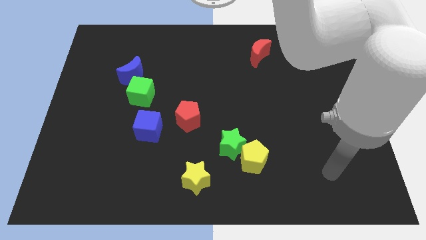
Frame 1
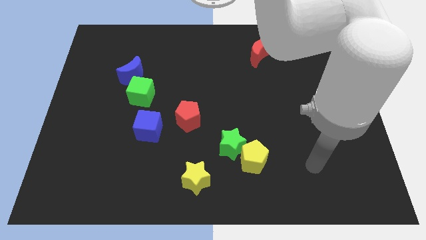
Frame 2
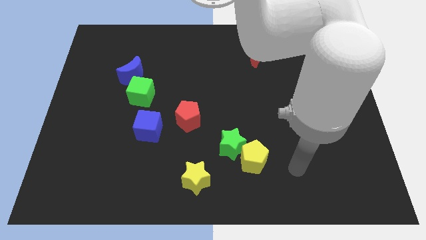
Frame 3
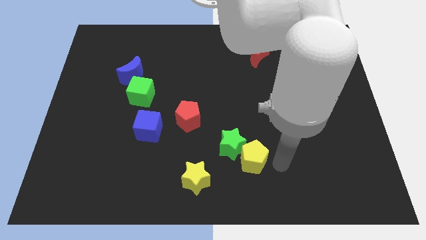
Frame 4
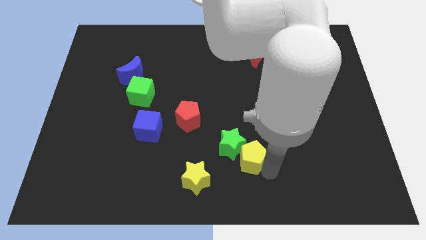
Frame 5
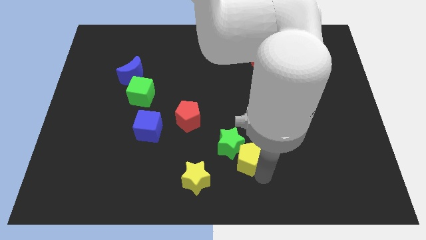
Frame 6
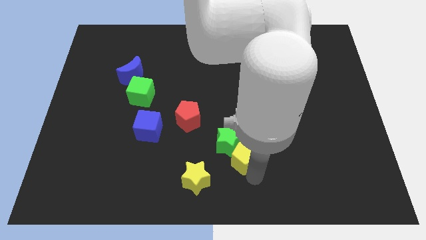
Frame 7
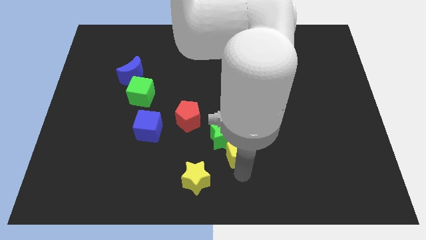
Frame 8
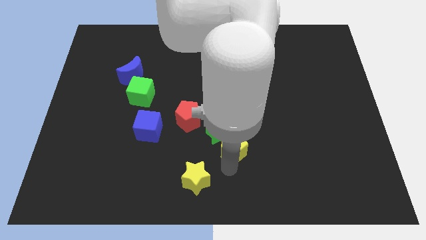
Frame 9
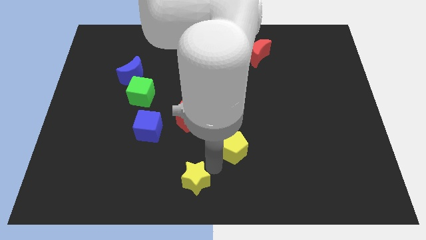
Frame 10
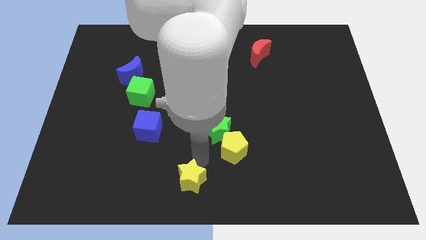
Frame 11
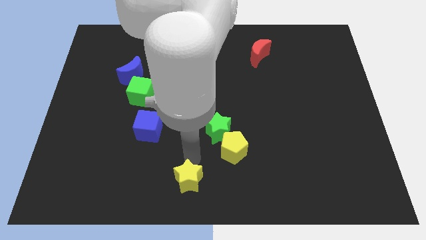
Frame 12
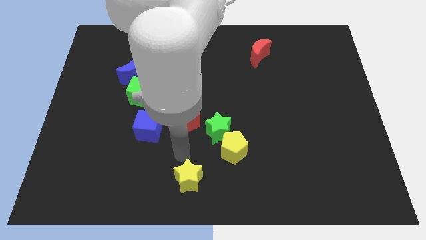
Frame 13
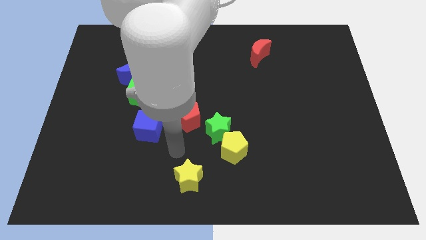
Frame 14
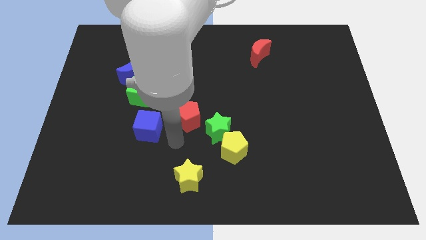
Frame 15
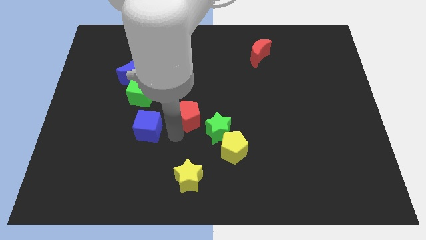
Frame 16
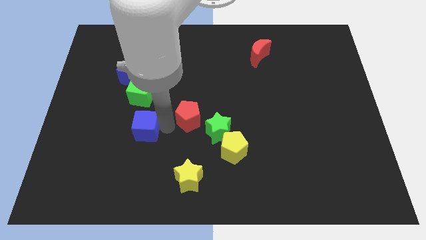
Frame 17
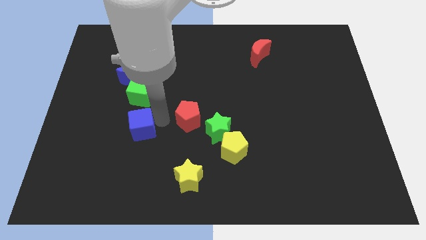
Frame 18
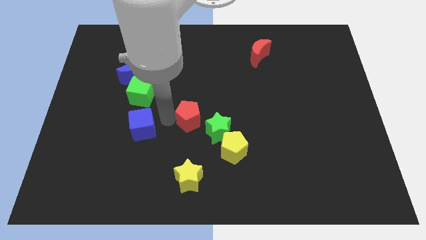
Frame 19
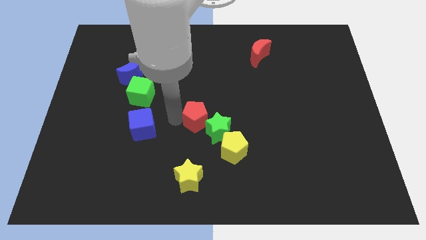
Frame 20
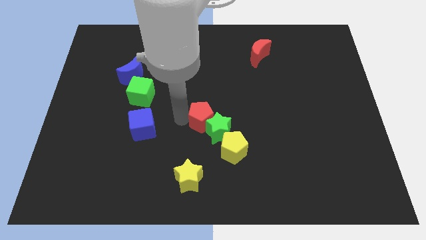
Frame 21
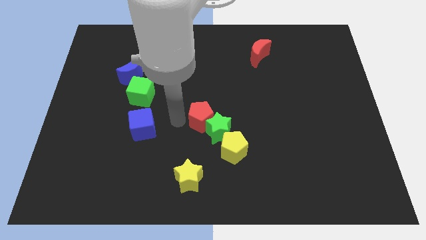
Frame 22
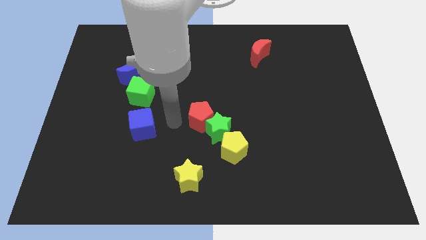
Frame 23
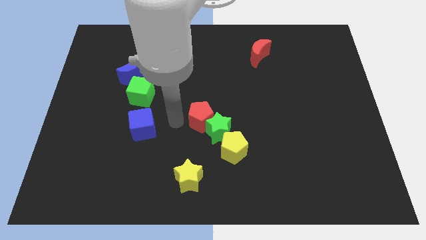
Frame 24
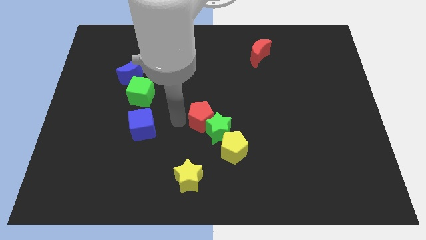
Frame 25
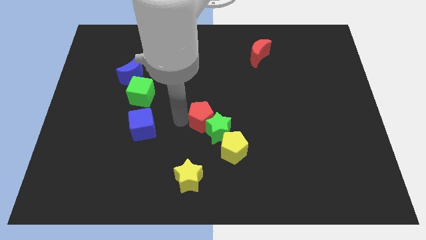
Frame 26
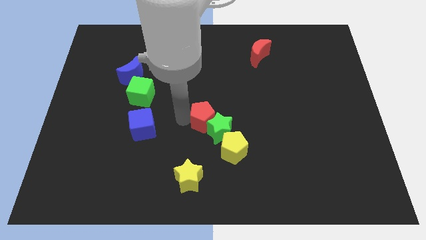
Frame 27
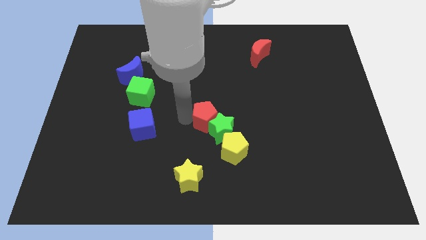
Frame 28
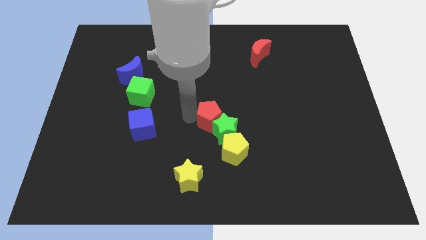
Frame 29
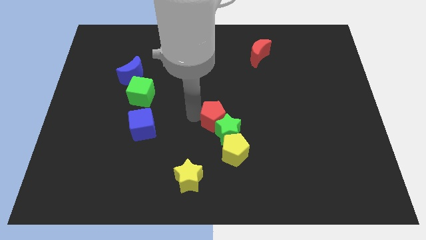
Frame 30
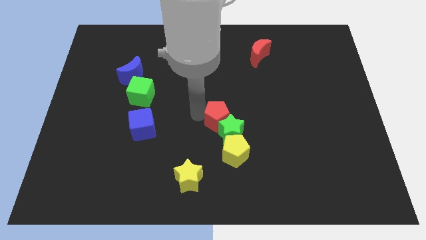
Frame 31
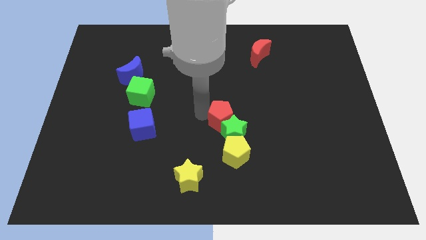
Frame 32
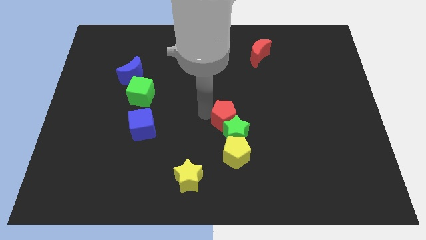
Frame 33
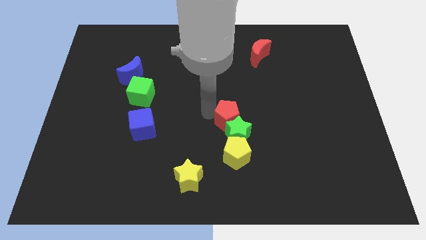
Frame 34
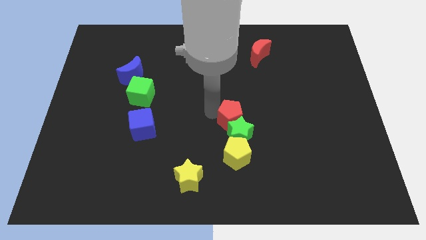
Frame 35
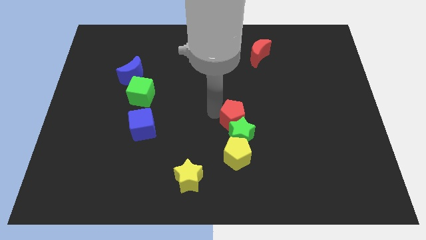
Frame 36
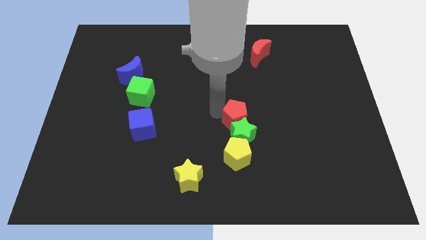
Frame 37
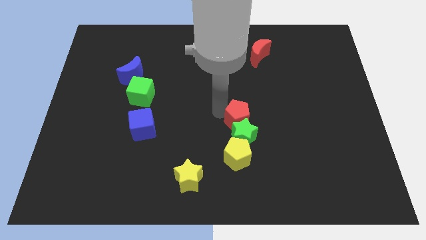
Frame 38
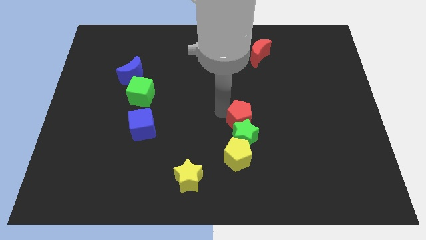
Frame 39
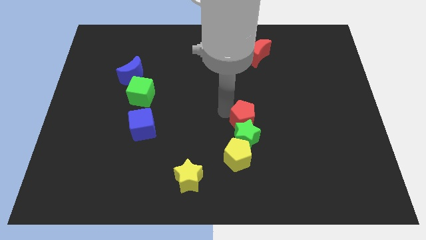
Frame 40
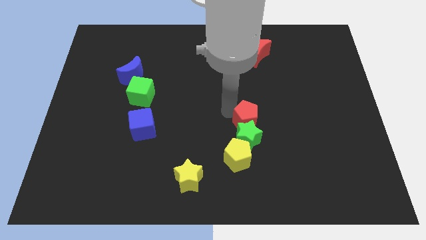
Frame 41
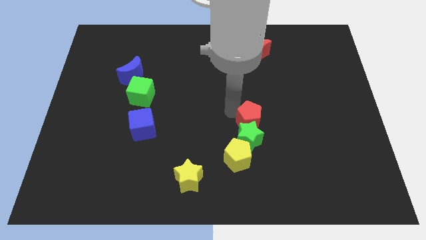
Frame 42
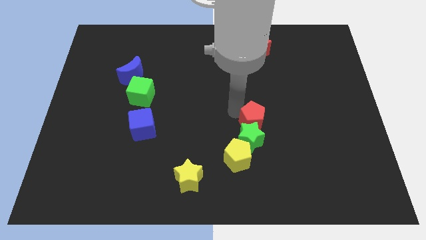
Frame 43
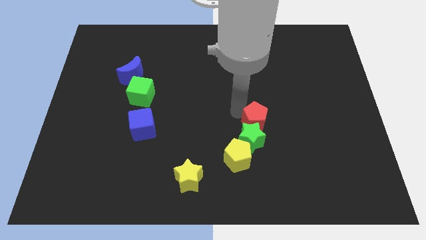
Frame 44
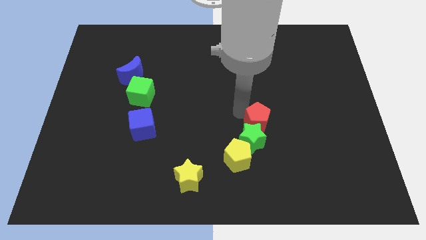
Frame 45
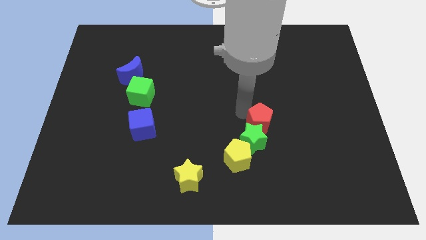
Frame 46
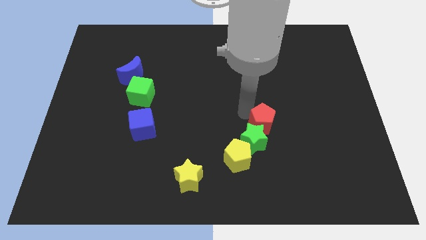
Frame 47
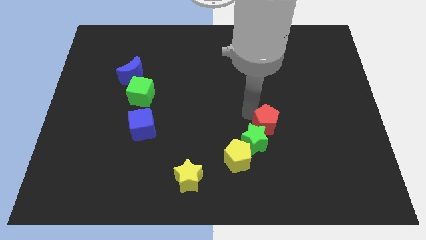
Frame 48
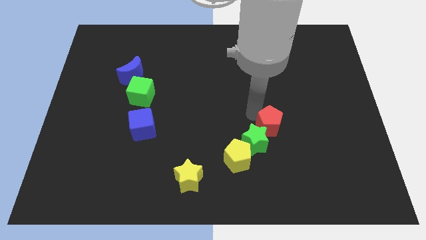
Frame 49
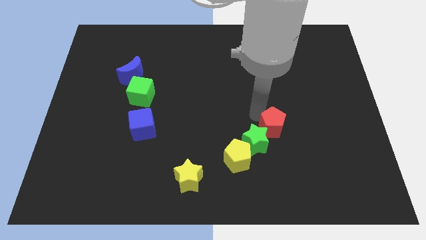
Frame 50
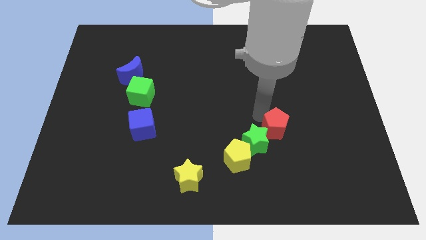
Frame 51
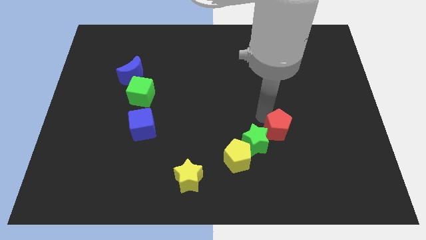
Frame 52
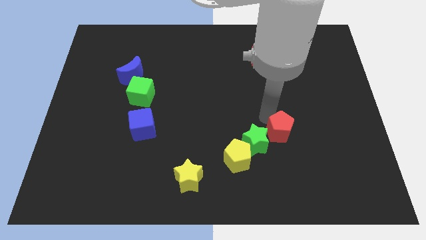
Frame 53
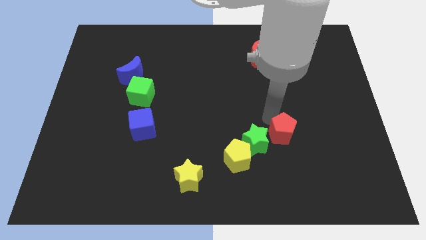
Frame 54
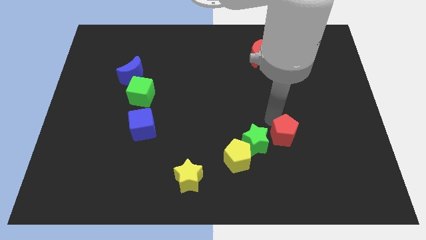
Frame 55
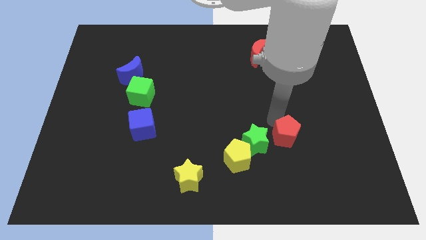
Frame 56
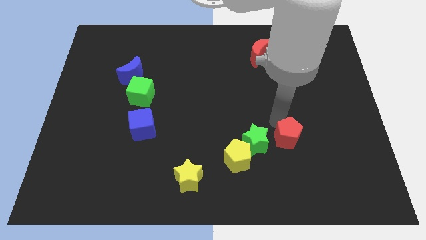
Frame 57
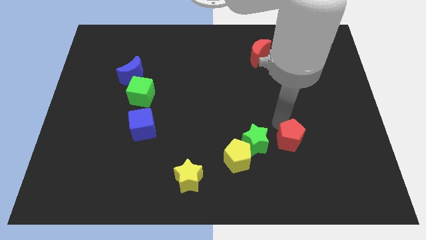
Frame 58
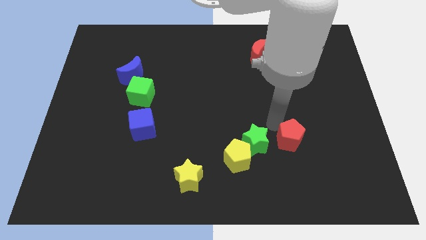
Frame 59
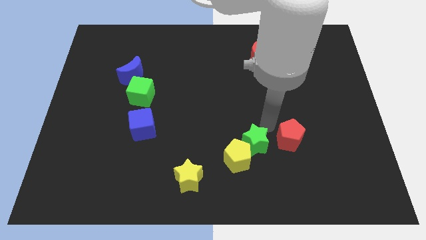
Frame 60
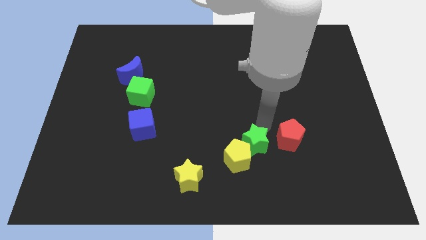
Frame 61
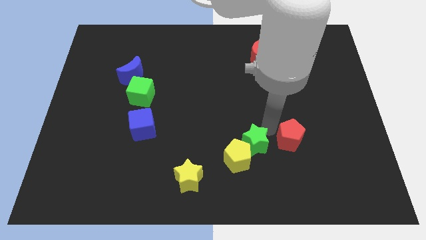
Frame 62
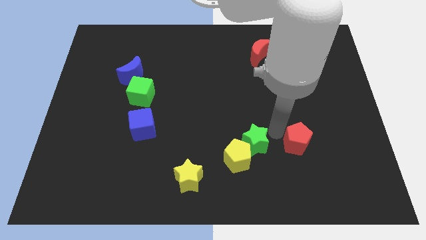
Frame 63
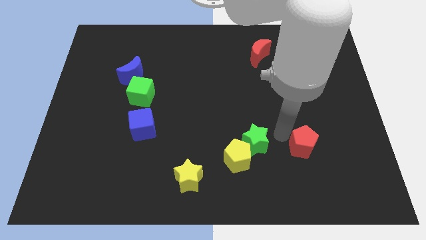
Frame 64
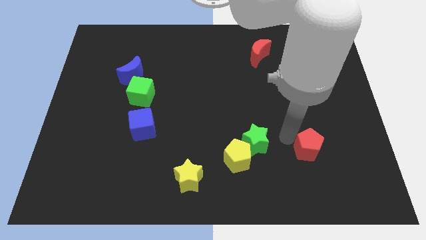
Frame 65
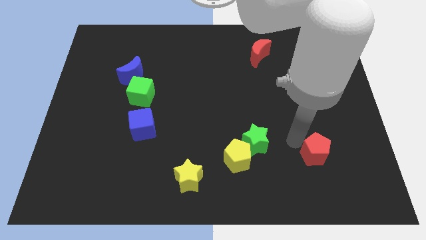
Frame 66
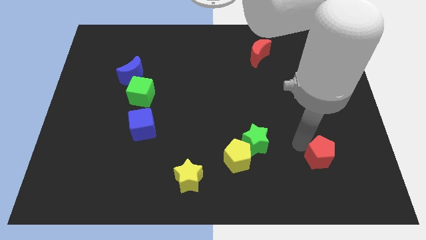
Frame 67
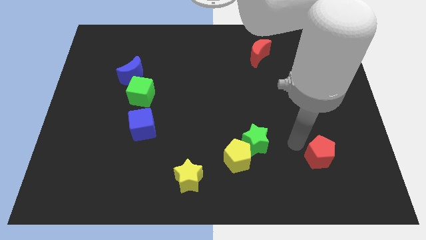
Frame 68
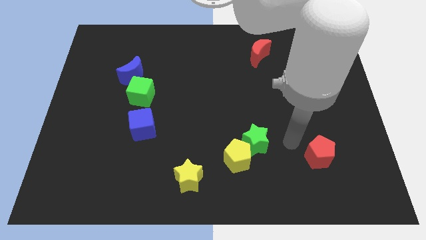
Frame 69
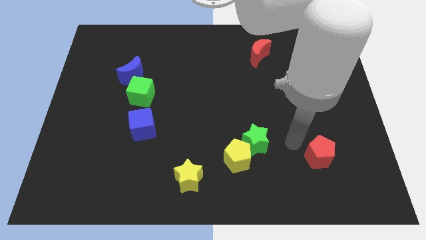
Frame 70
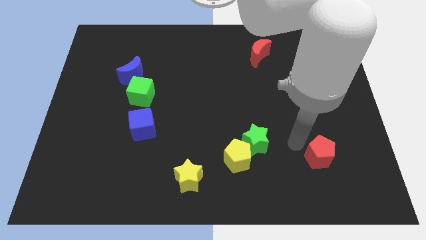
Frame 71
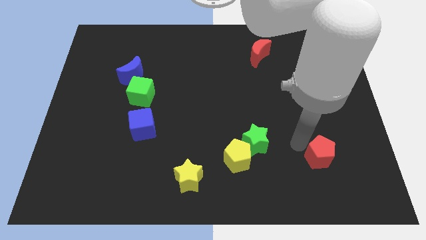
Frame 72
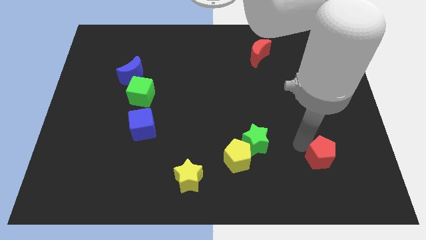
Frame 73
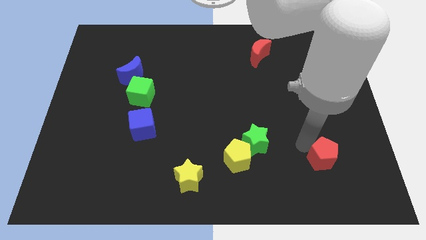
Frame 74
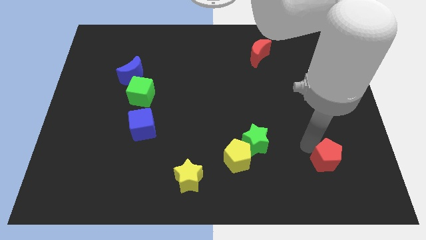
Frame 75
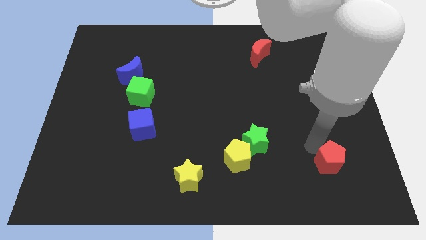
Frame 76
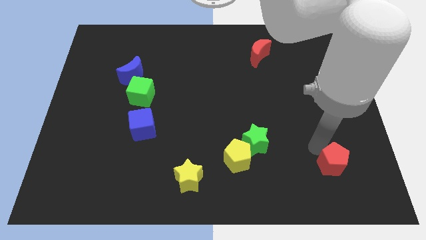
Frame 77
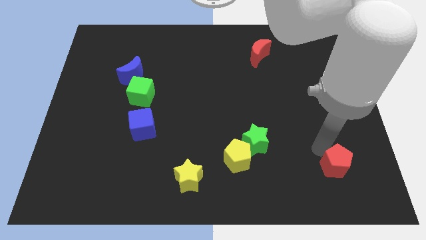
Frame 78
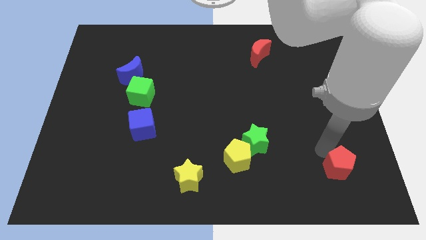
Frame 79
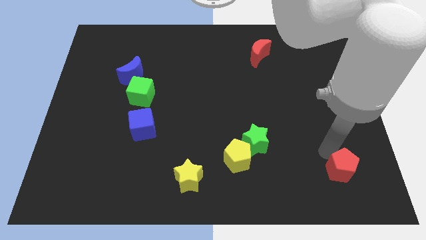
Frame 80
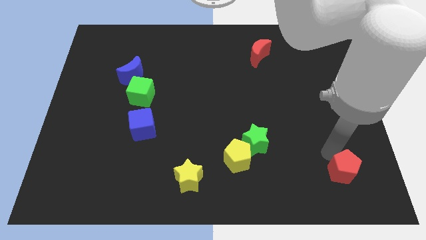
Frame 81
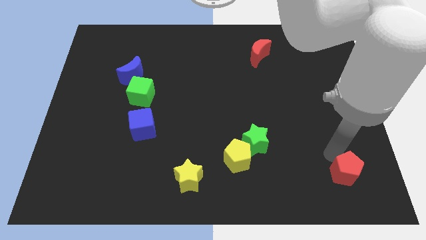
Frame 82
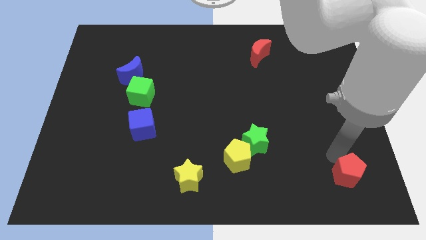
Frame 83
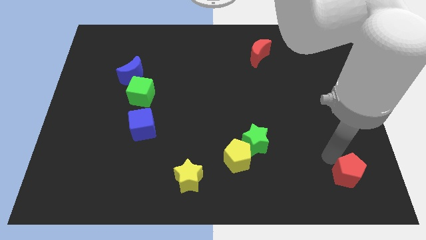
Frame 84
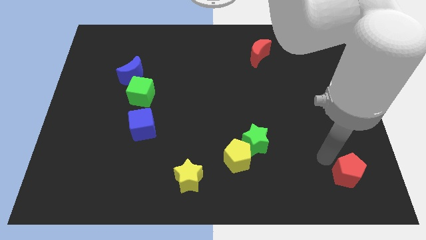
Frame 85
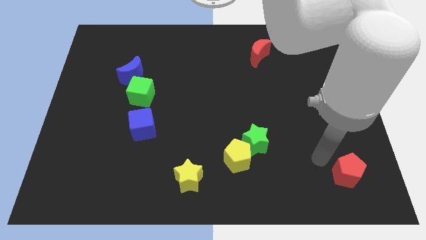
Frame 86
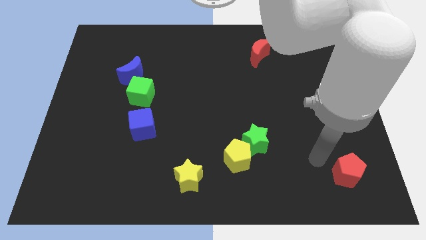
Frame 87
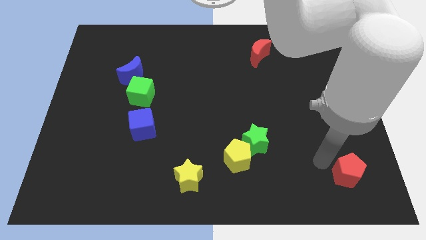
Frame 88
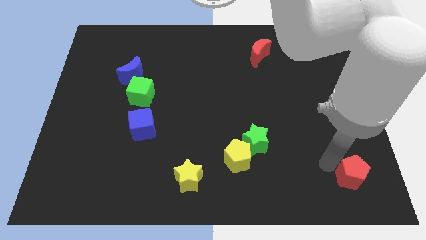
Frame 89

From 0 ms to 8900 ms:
move the red pentagon to the lower right corner
